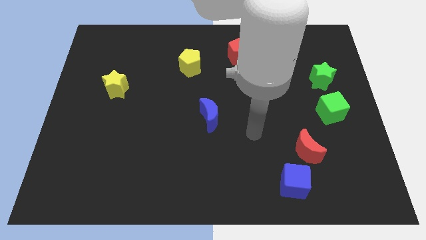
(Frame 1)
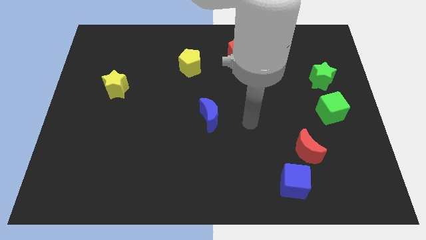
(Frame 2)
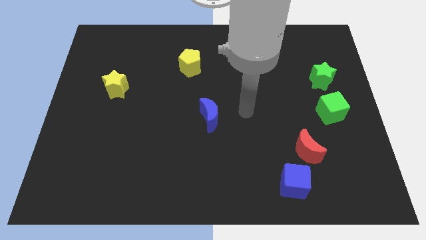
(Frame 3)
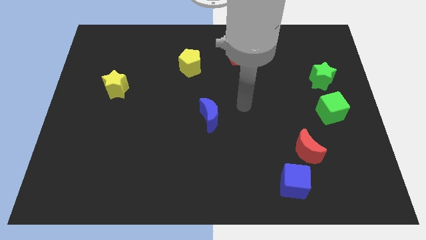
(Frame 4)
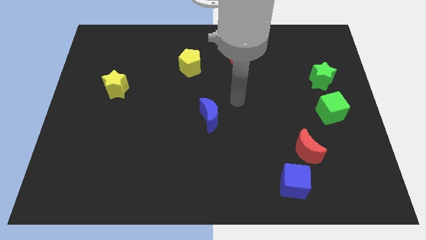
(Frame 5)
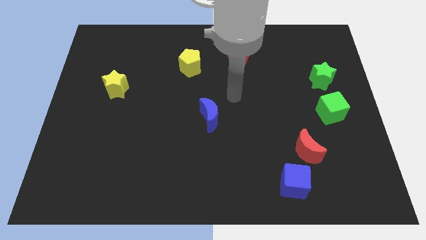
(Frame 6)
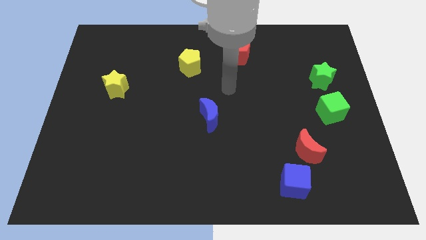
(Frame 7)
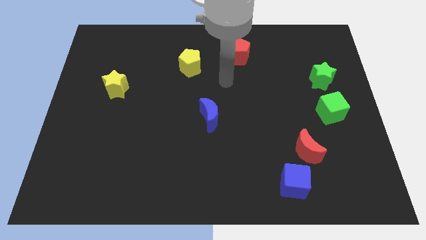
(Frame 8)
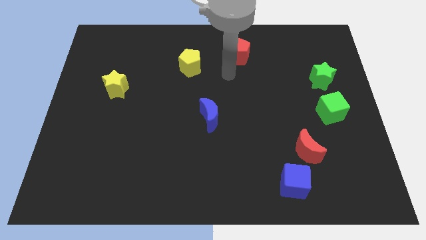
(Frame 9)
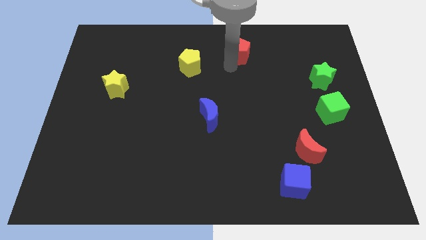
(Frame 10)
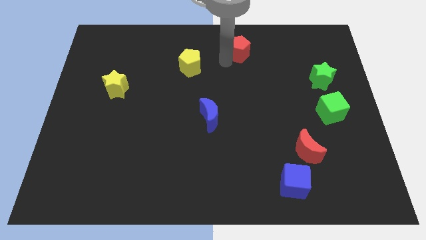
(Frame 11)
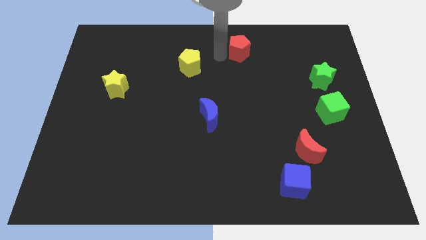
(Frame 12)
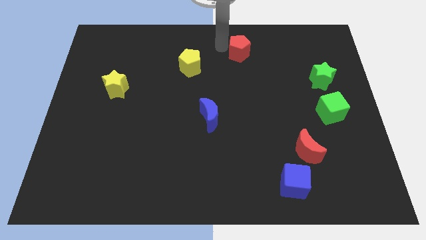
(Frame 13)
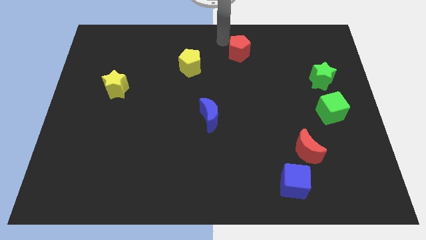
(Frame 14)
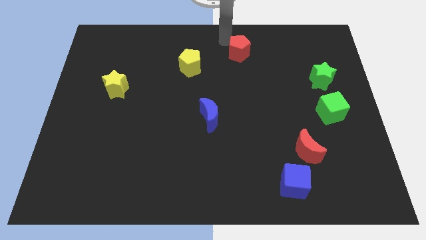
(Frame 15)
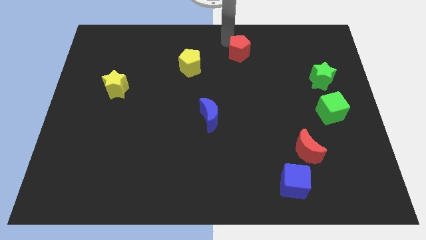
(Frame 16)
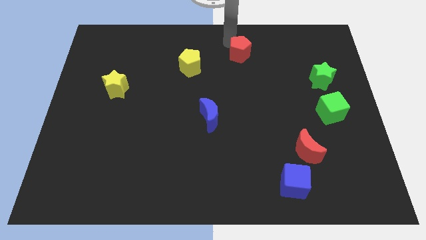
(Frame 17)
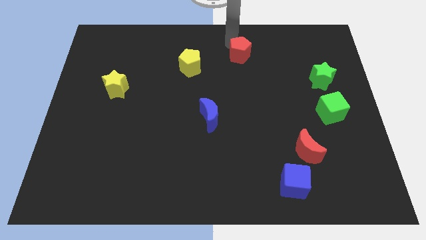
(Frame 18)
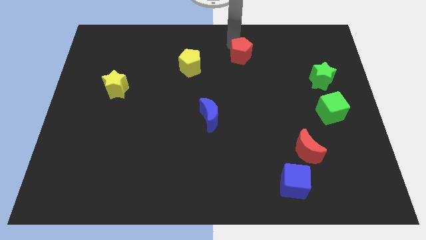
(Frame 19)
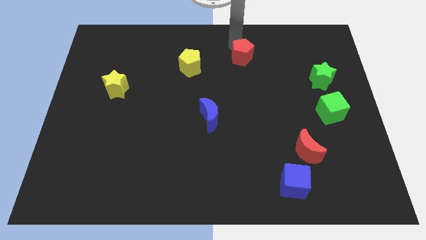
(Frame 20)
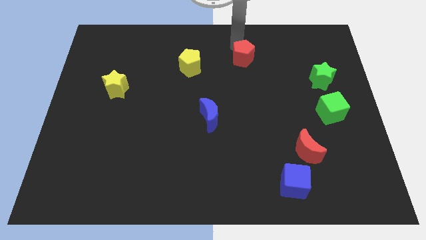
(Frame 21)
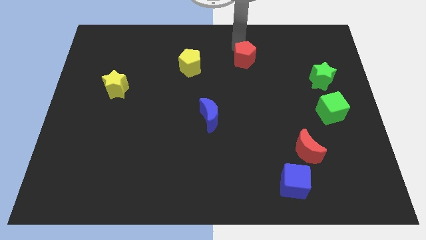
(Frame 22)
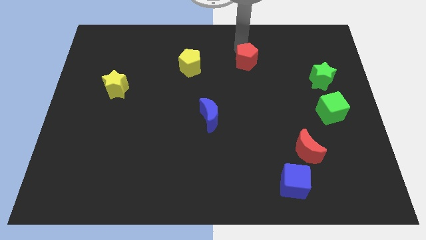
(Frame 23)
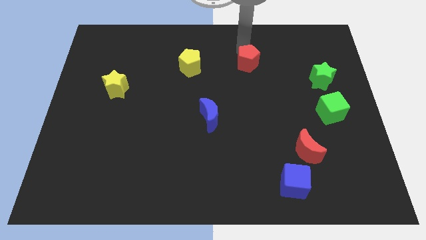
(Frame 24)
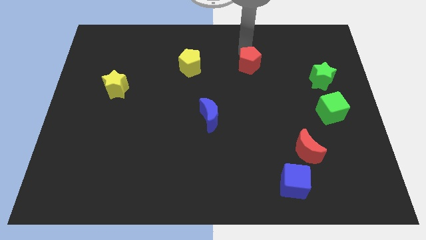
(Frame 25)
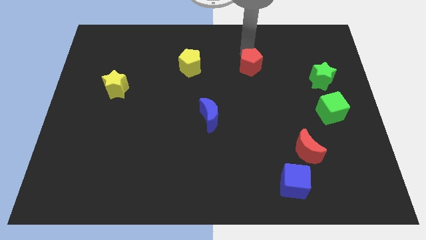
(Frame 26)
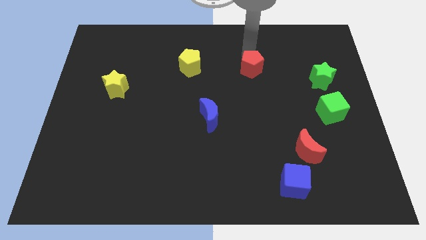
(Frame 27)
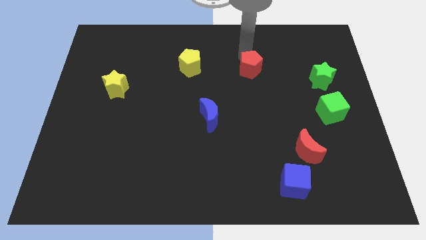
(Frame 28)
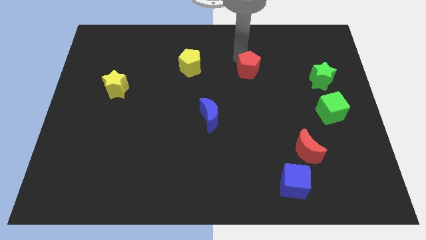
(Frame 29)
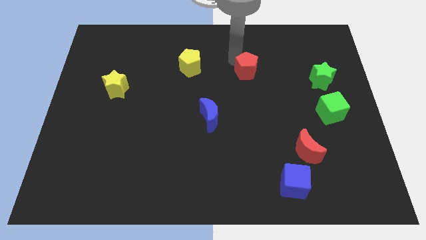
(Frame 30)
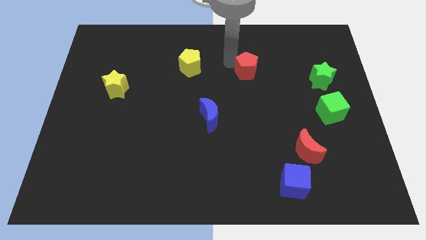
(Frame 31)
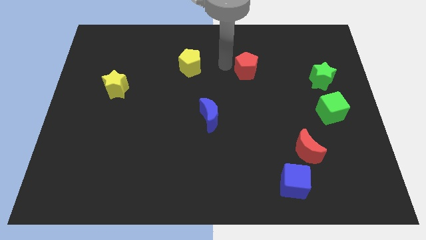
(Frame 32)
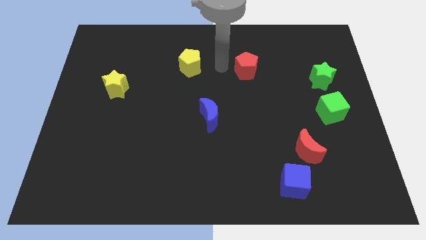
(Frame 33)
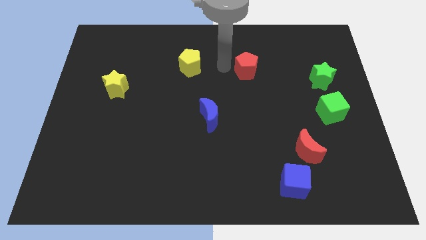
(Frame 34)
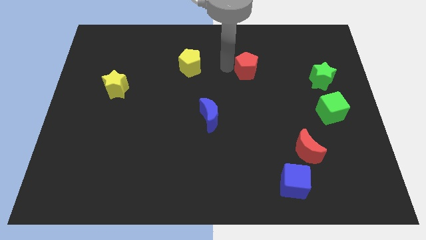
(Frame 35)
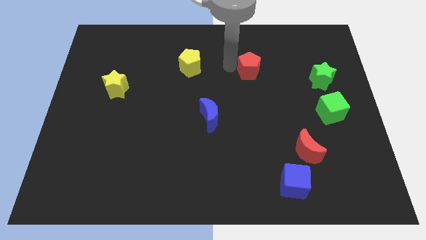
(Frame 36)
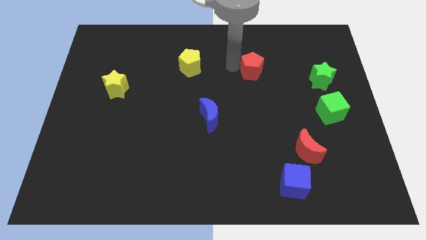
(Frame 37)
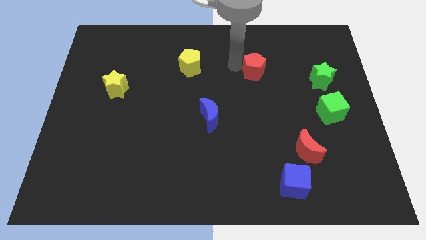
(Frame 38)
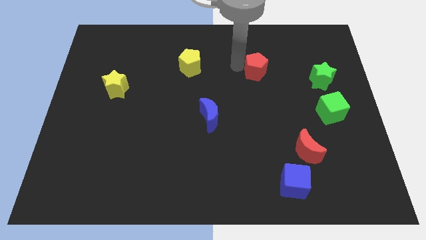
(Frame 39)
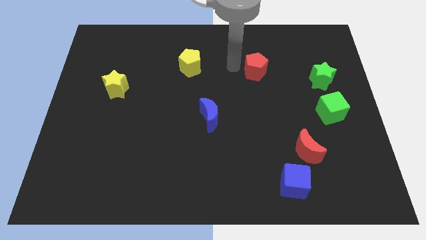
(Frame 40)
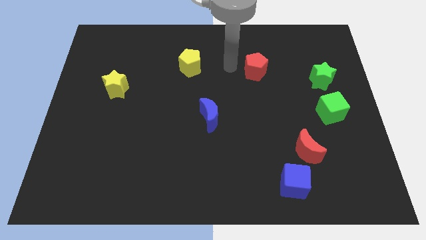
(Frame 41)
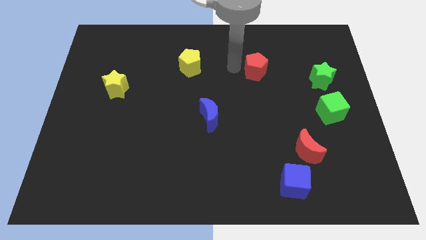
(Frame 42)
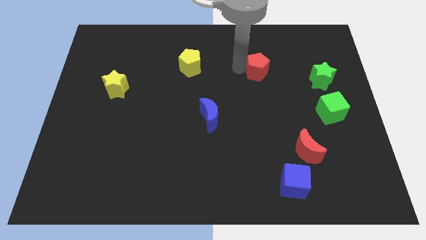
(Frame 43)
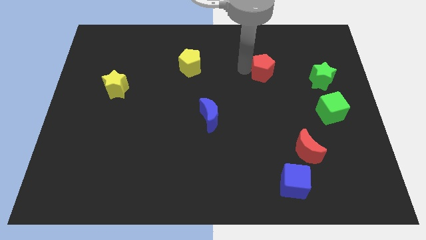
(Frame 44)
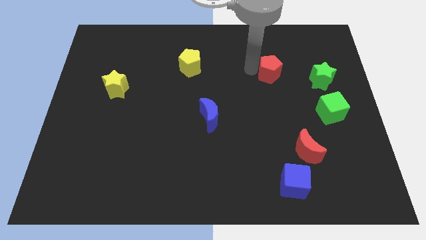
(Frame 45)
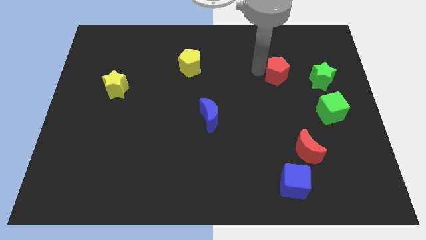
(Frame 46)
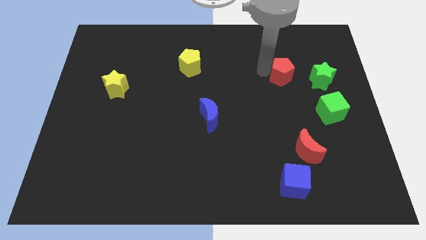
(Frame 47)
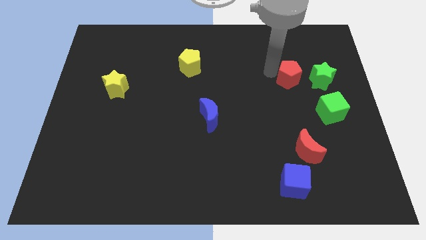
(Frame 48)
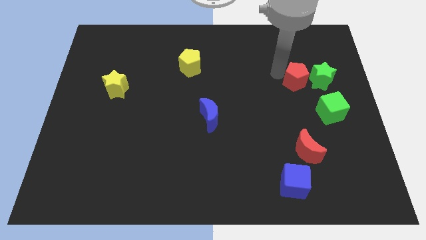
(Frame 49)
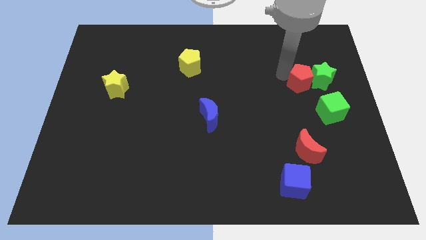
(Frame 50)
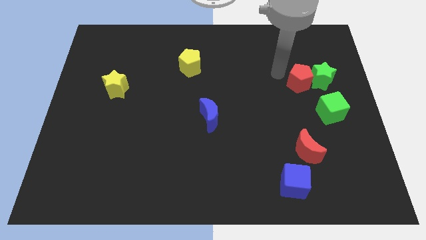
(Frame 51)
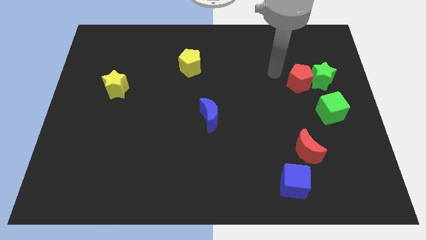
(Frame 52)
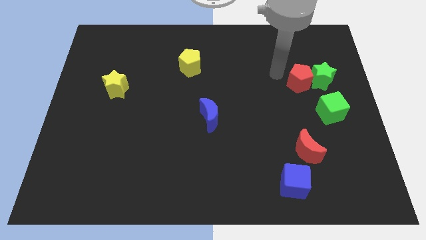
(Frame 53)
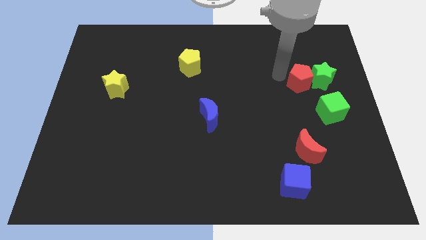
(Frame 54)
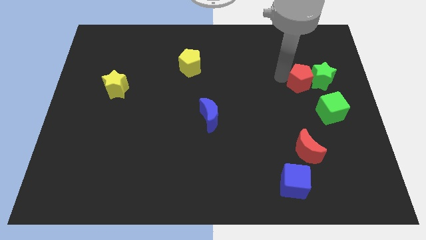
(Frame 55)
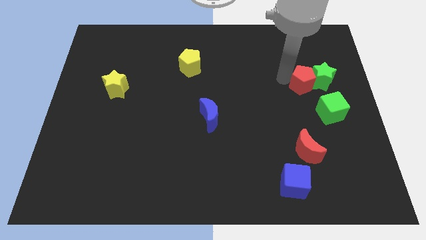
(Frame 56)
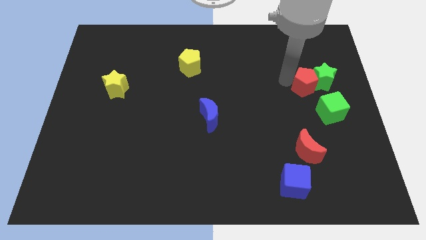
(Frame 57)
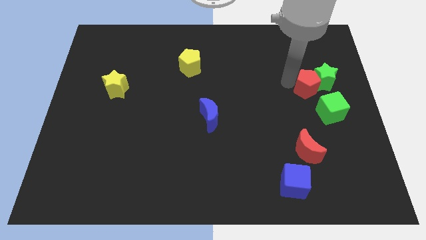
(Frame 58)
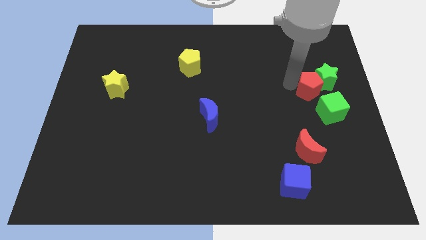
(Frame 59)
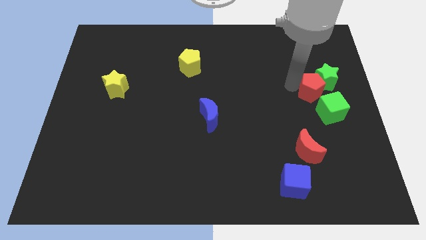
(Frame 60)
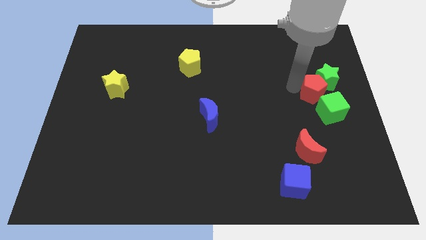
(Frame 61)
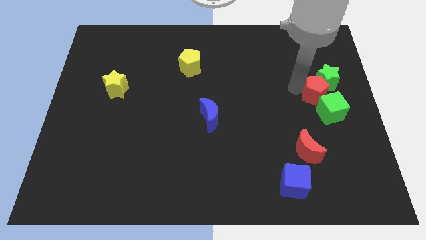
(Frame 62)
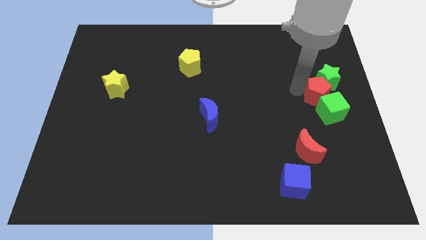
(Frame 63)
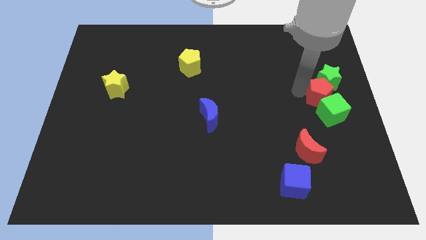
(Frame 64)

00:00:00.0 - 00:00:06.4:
slide the red pentagon to the right side
